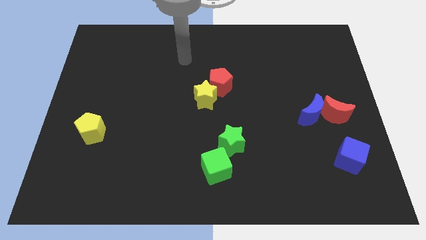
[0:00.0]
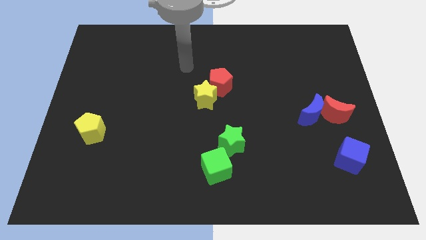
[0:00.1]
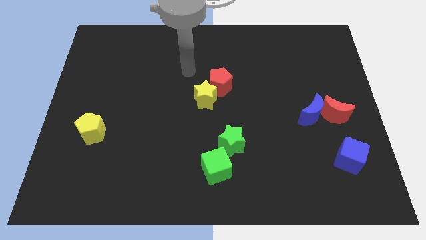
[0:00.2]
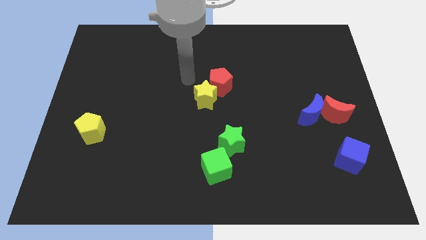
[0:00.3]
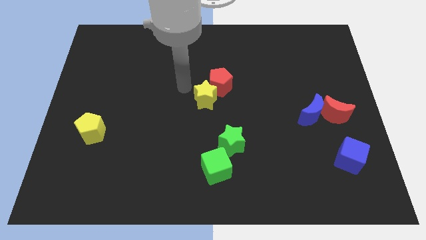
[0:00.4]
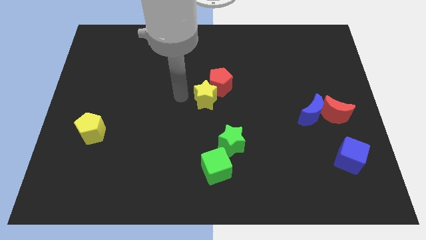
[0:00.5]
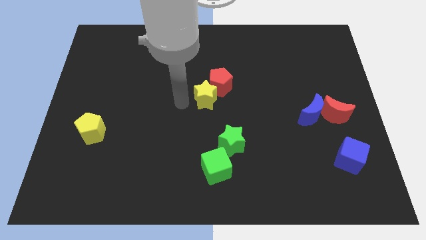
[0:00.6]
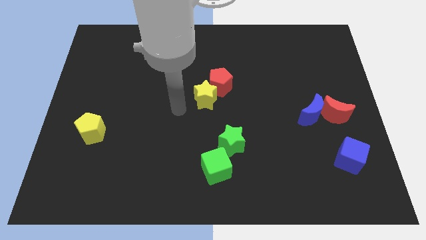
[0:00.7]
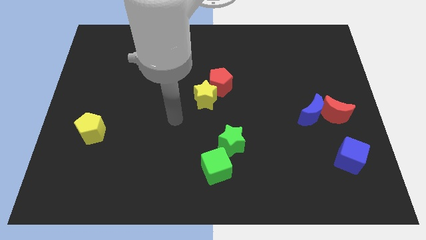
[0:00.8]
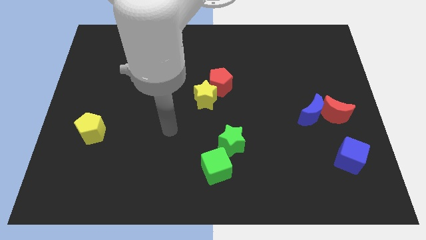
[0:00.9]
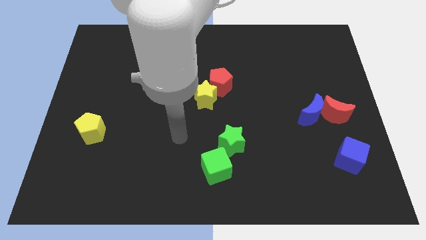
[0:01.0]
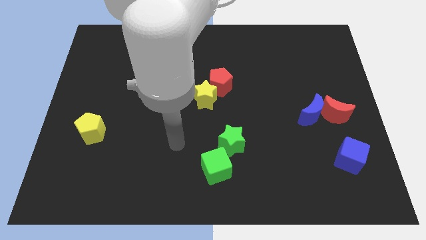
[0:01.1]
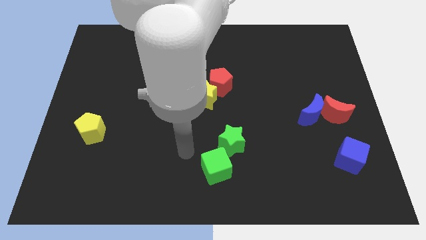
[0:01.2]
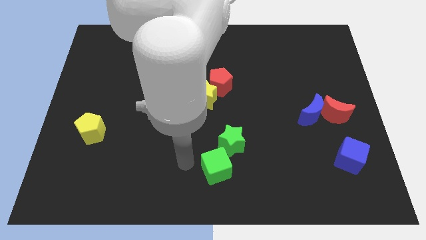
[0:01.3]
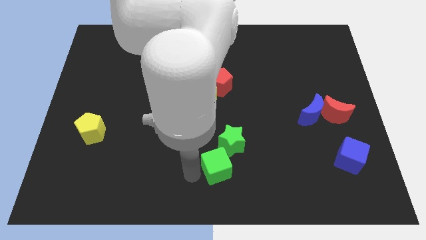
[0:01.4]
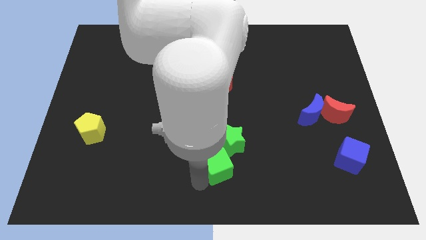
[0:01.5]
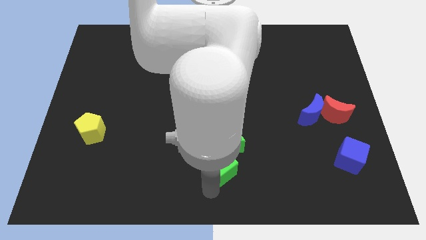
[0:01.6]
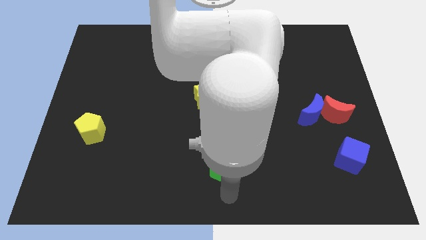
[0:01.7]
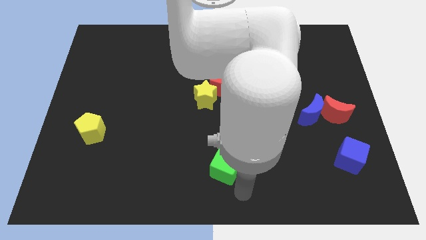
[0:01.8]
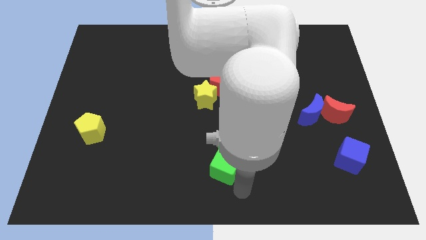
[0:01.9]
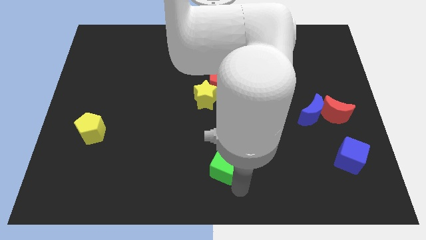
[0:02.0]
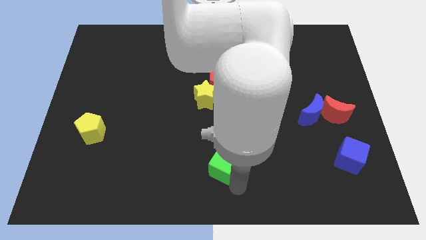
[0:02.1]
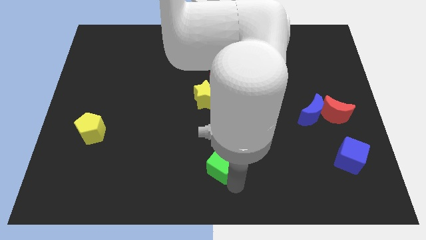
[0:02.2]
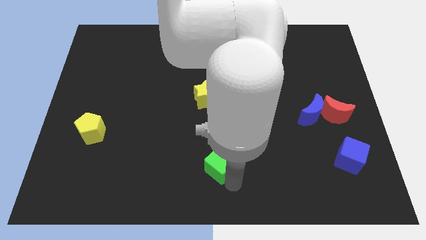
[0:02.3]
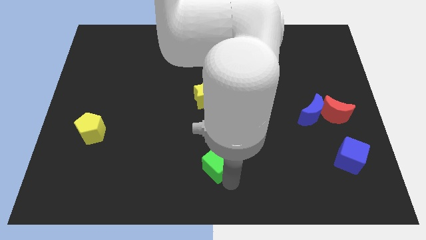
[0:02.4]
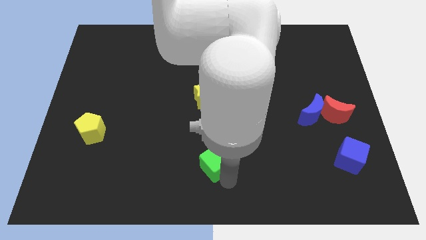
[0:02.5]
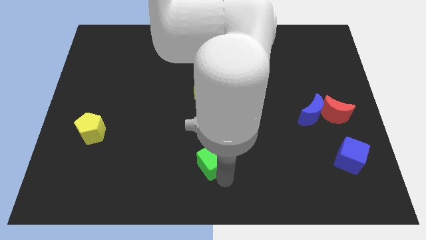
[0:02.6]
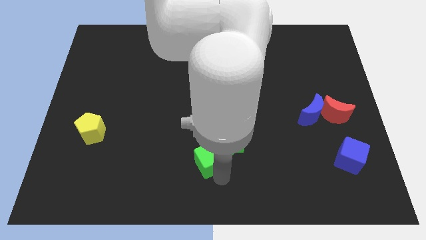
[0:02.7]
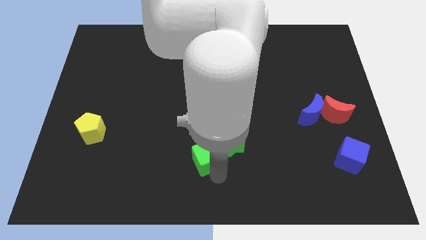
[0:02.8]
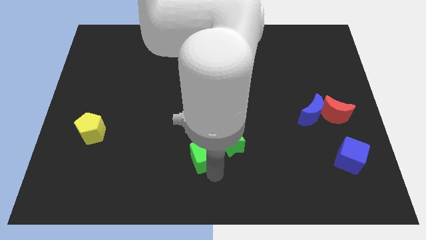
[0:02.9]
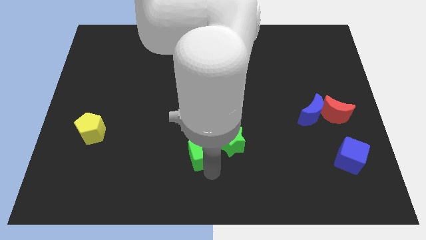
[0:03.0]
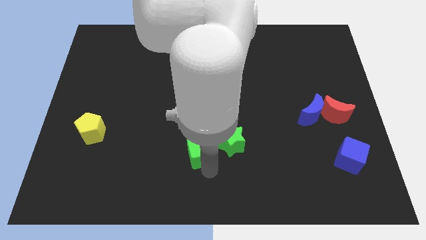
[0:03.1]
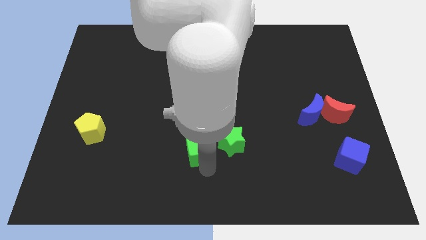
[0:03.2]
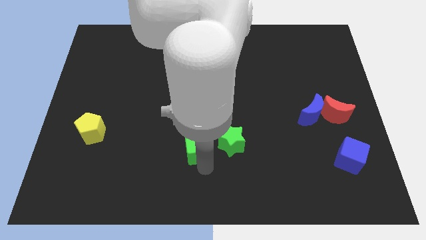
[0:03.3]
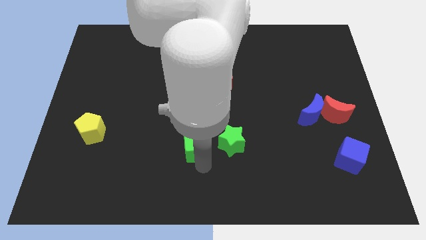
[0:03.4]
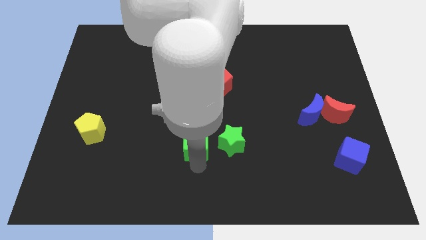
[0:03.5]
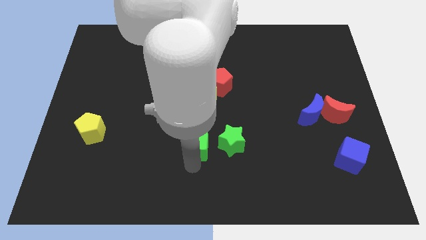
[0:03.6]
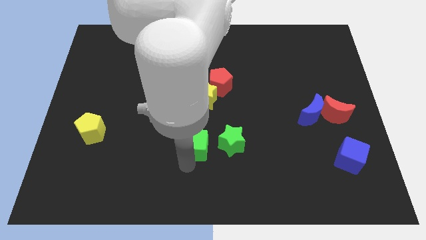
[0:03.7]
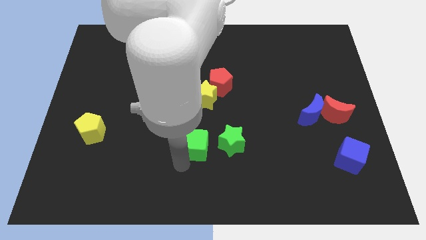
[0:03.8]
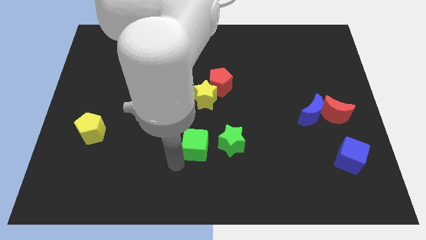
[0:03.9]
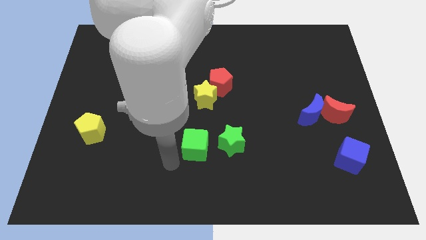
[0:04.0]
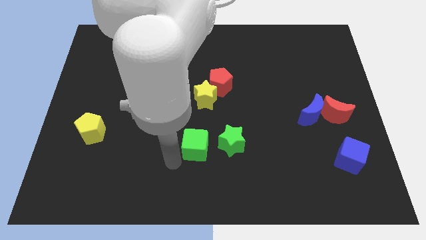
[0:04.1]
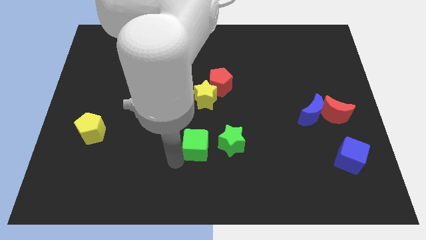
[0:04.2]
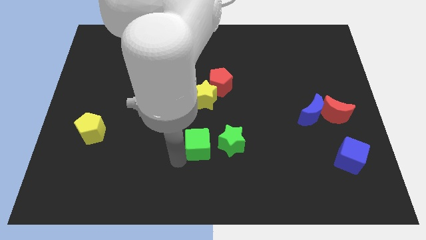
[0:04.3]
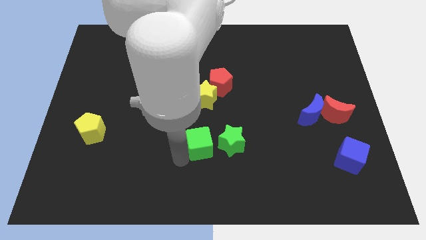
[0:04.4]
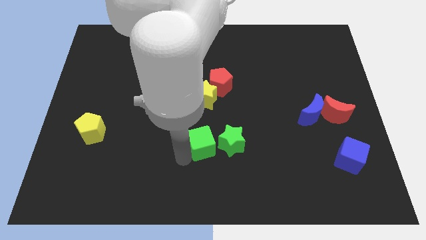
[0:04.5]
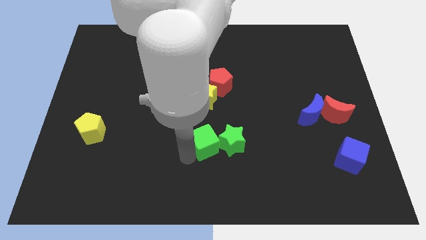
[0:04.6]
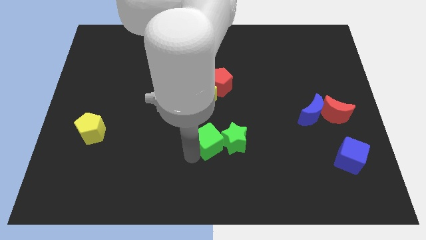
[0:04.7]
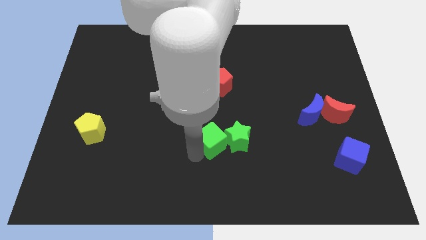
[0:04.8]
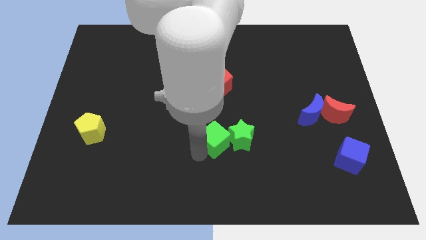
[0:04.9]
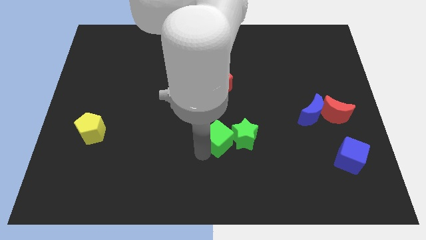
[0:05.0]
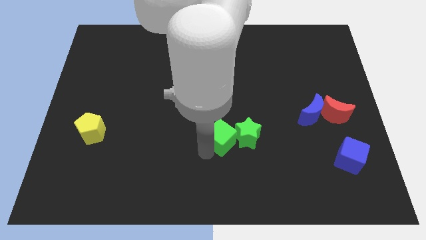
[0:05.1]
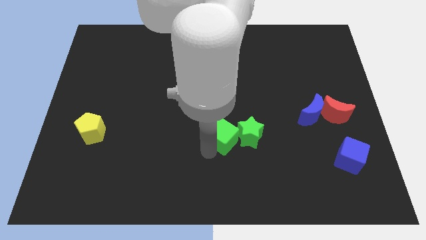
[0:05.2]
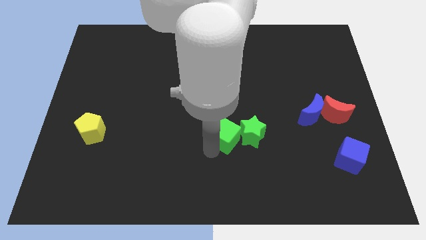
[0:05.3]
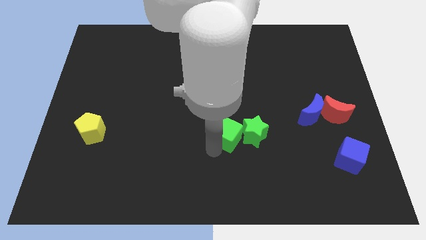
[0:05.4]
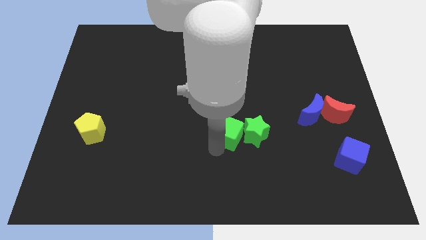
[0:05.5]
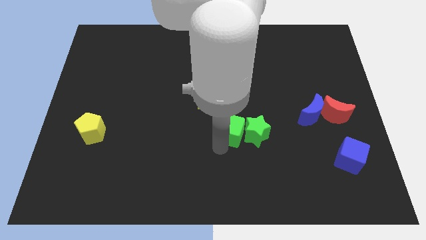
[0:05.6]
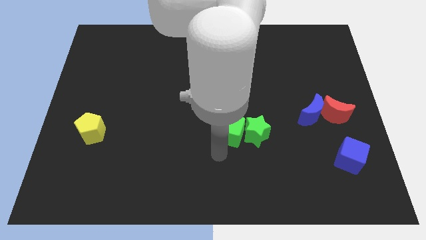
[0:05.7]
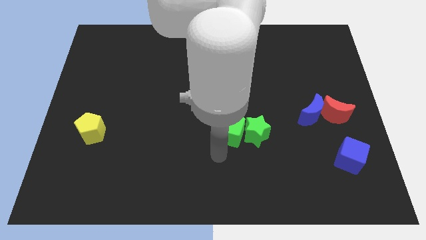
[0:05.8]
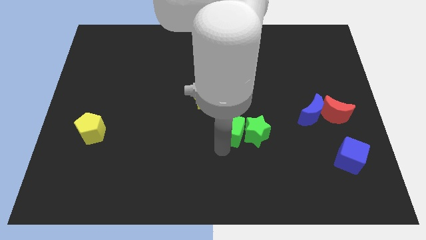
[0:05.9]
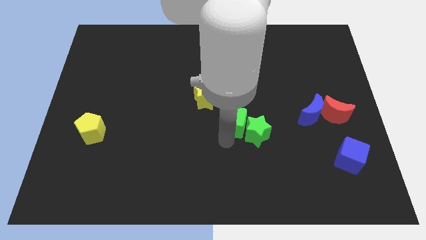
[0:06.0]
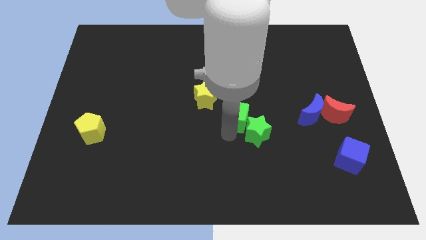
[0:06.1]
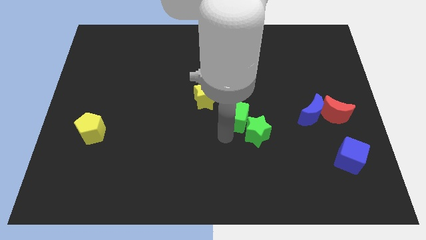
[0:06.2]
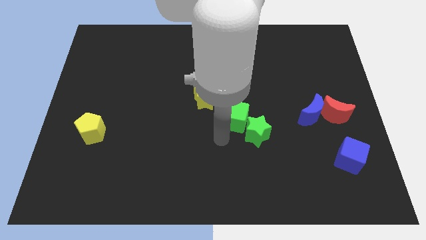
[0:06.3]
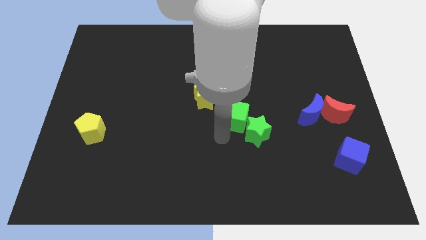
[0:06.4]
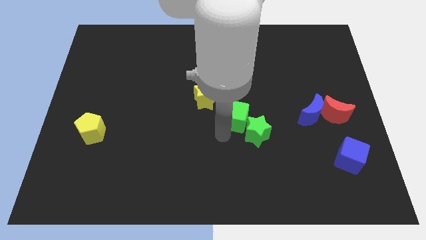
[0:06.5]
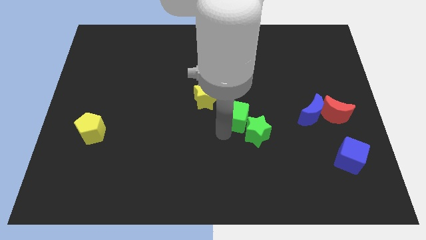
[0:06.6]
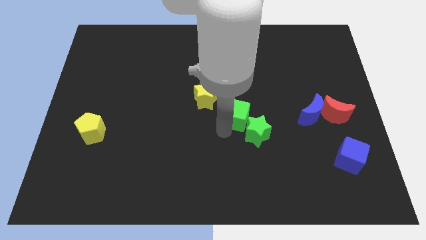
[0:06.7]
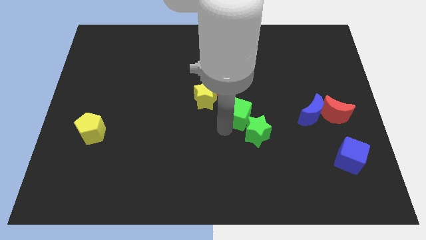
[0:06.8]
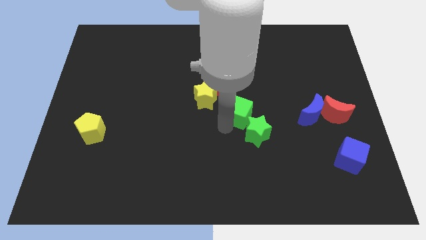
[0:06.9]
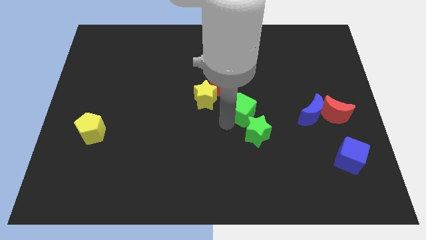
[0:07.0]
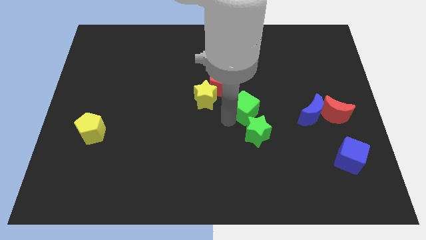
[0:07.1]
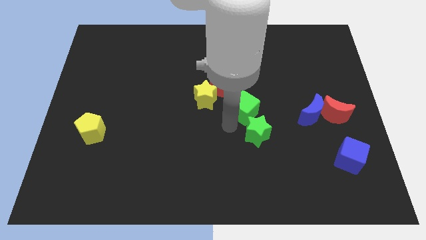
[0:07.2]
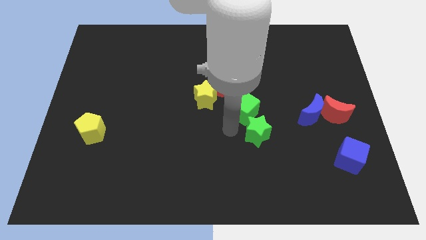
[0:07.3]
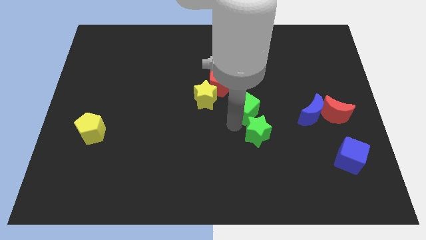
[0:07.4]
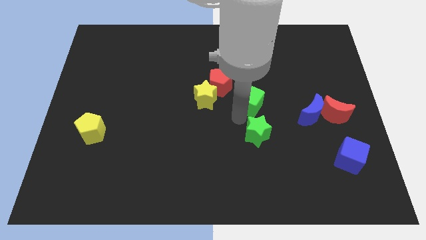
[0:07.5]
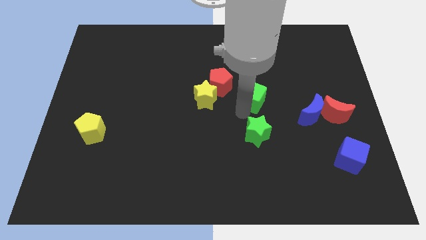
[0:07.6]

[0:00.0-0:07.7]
move the green cube just right of the red pentagon
